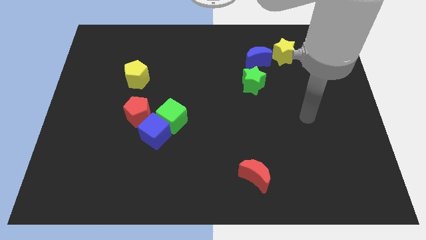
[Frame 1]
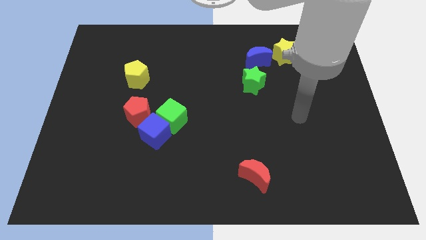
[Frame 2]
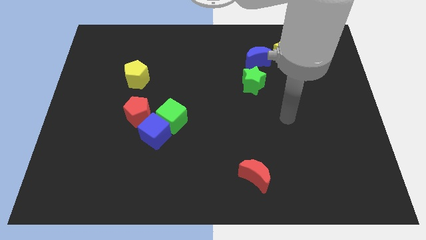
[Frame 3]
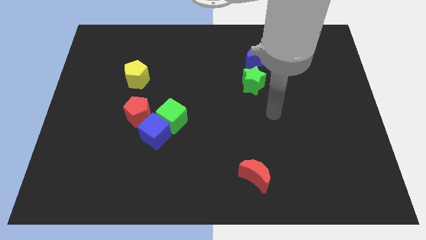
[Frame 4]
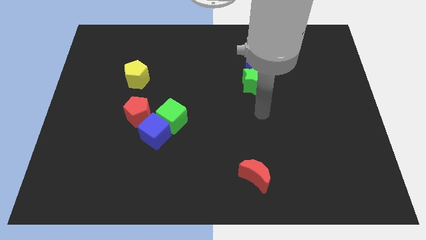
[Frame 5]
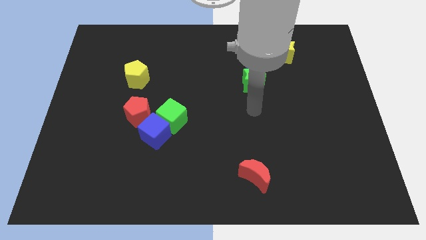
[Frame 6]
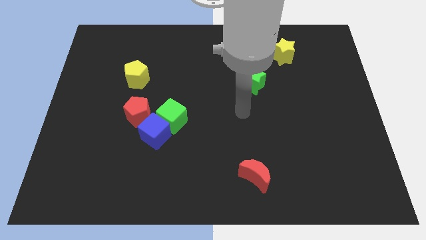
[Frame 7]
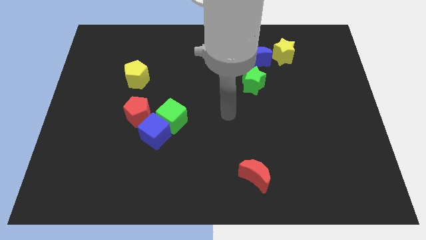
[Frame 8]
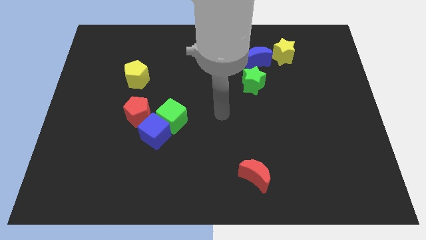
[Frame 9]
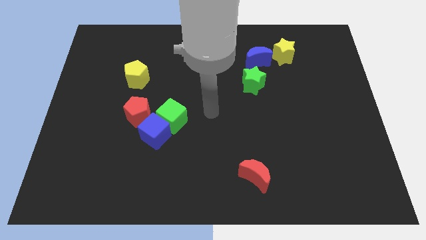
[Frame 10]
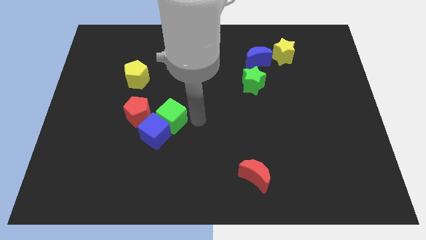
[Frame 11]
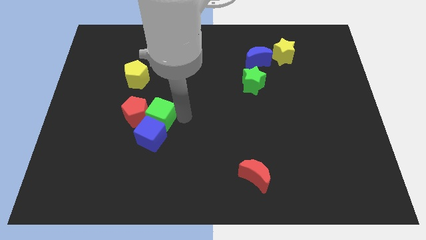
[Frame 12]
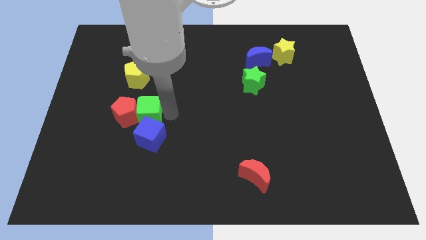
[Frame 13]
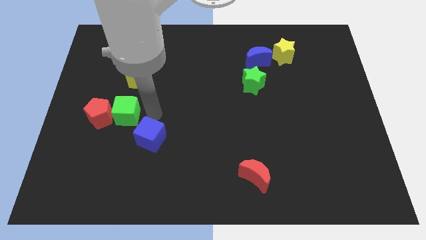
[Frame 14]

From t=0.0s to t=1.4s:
move the blue cube away from the green cube and red pentagon

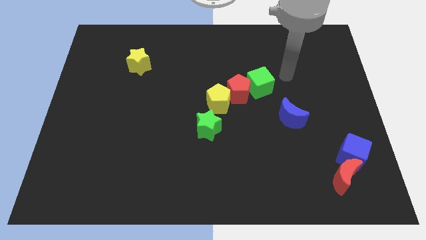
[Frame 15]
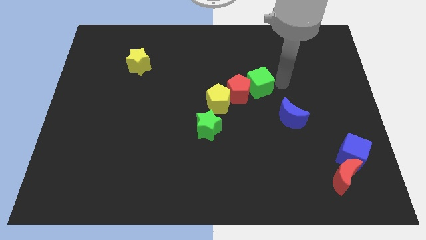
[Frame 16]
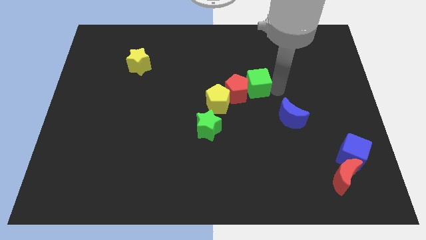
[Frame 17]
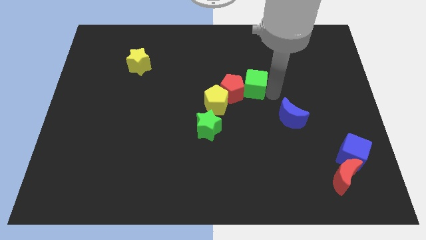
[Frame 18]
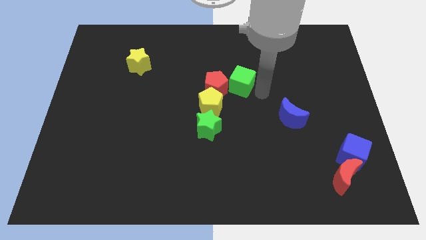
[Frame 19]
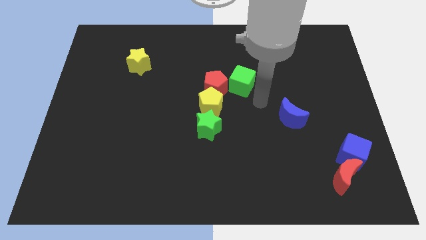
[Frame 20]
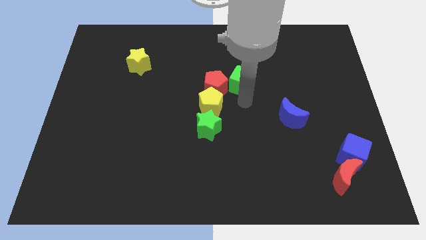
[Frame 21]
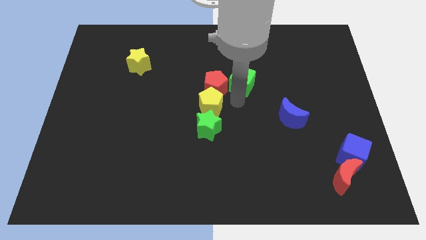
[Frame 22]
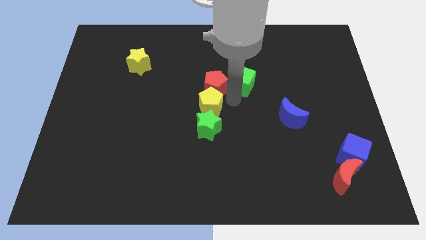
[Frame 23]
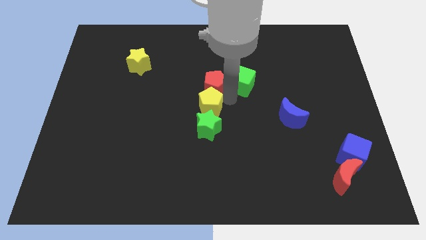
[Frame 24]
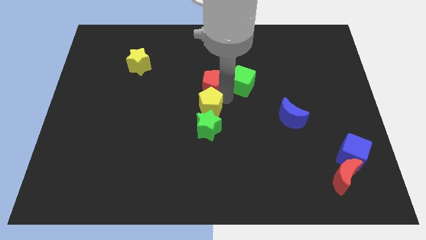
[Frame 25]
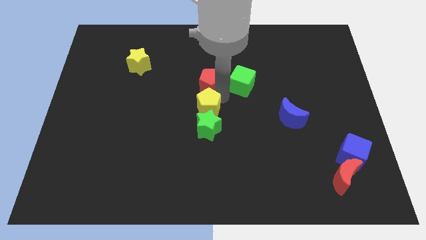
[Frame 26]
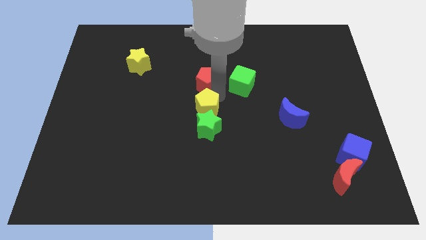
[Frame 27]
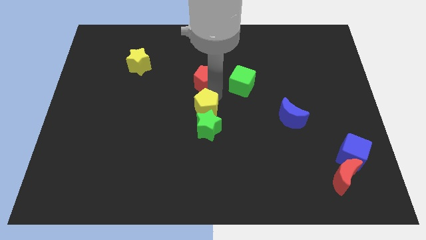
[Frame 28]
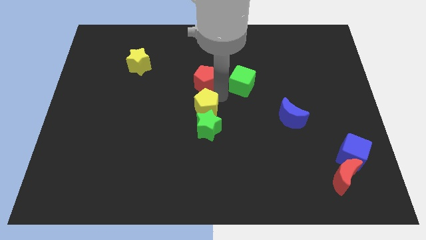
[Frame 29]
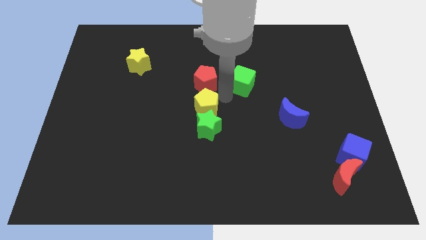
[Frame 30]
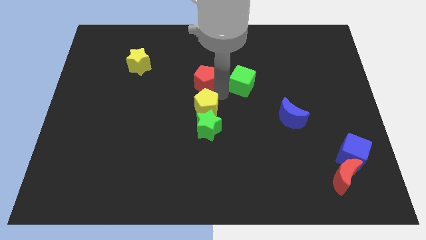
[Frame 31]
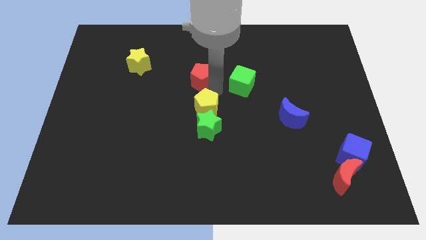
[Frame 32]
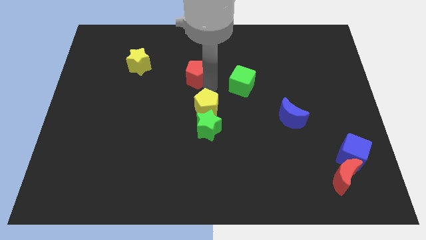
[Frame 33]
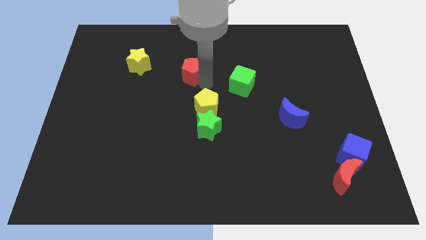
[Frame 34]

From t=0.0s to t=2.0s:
separate the red pentagon from the yellow pentagon and green cube

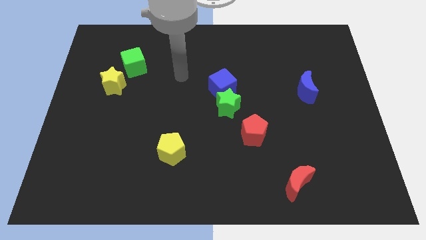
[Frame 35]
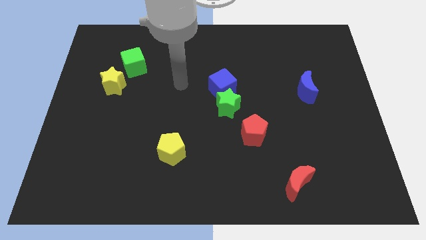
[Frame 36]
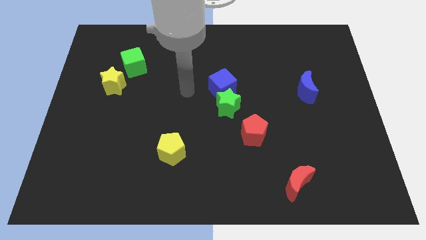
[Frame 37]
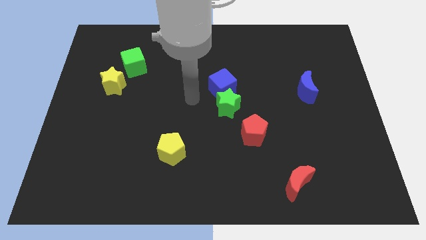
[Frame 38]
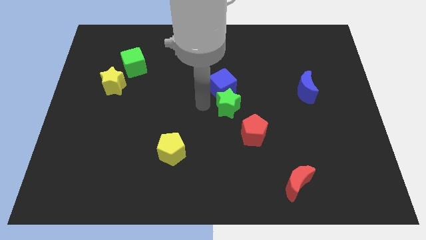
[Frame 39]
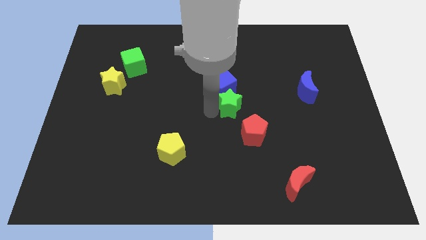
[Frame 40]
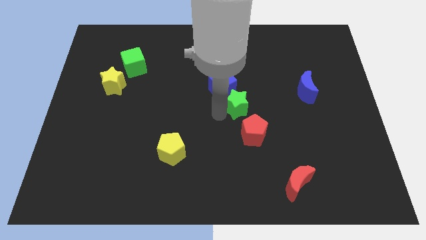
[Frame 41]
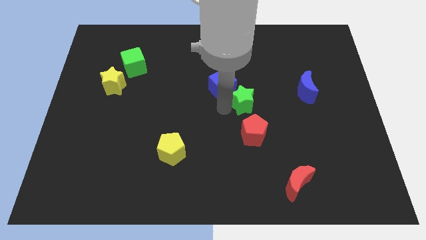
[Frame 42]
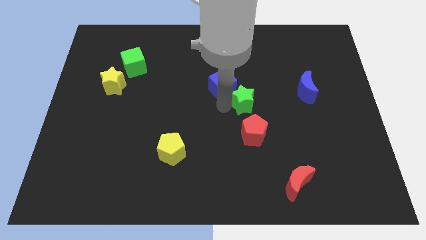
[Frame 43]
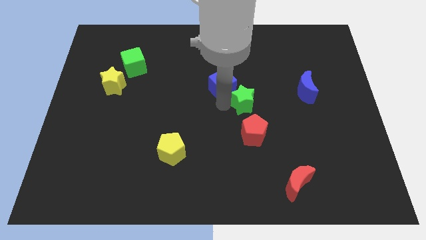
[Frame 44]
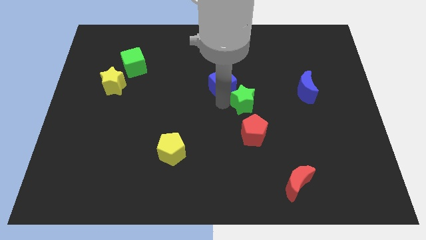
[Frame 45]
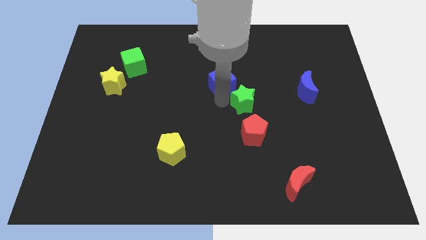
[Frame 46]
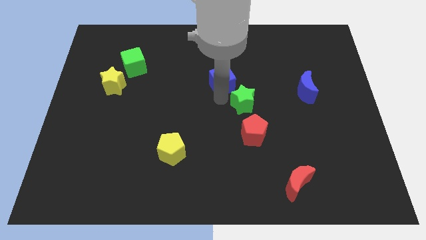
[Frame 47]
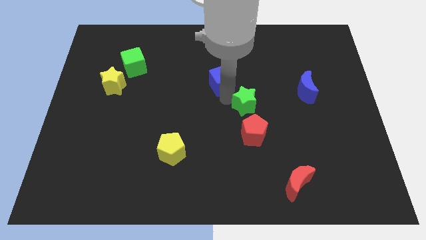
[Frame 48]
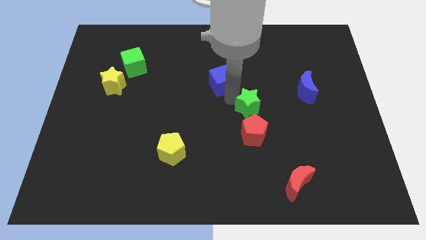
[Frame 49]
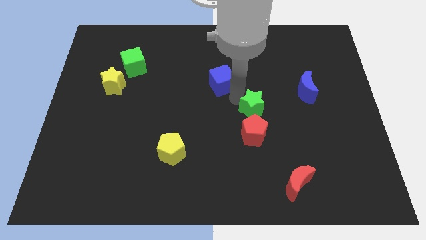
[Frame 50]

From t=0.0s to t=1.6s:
pull the blue cube apart from the green star

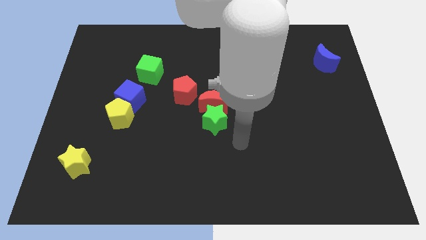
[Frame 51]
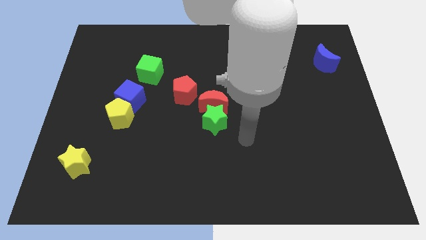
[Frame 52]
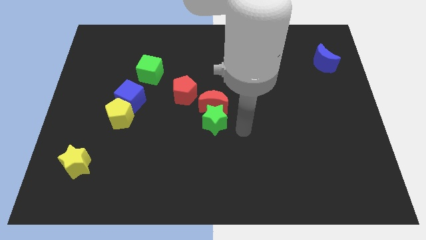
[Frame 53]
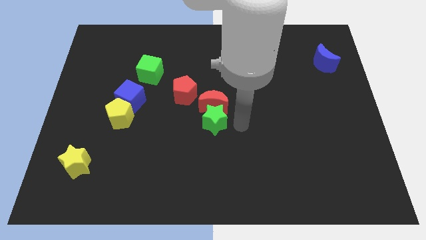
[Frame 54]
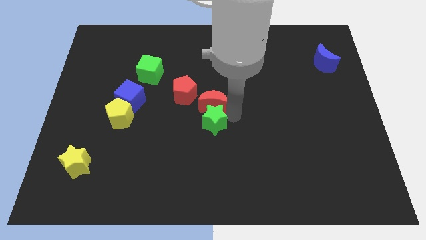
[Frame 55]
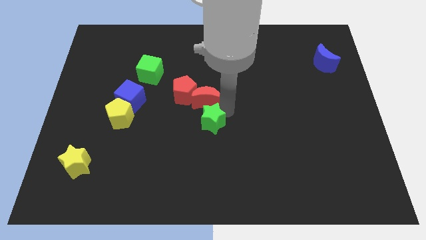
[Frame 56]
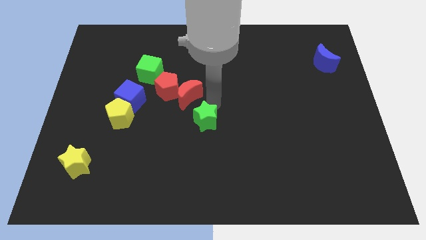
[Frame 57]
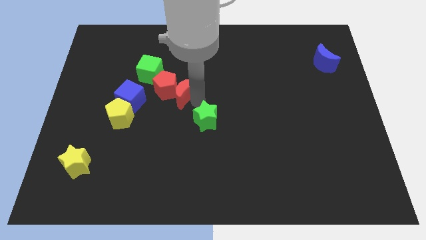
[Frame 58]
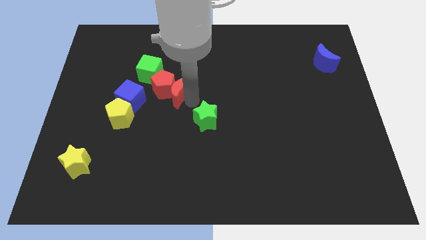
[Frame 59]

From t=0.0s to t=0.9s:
separate the green star from the red moon

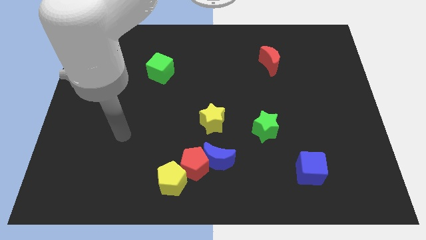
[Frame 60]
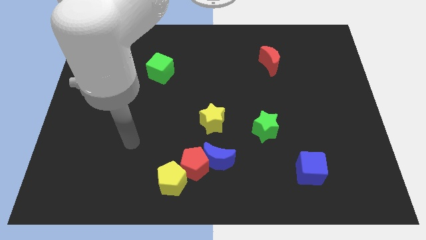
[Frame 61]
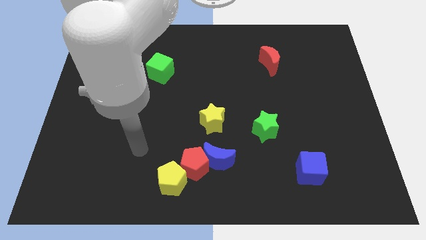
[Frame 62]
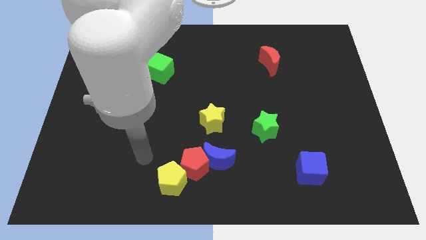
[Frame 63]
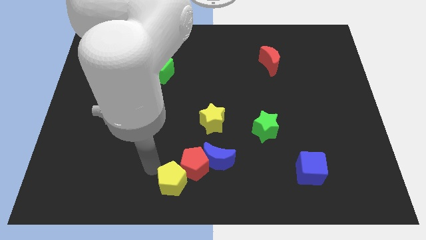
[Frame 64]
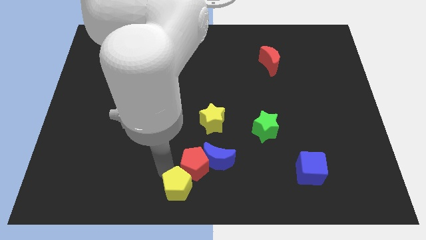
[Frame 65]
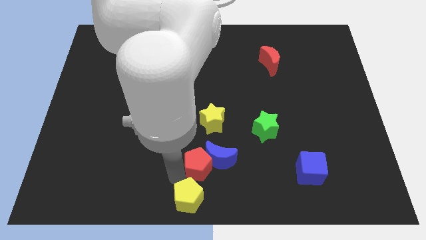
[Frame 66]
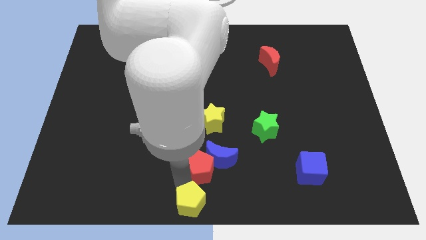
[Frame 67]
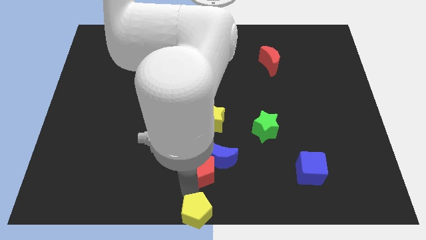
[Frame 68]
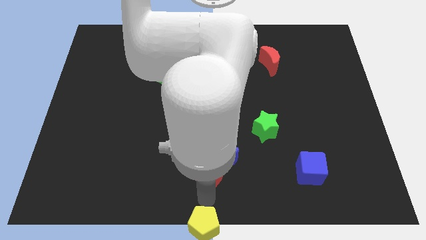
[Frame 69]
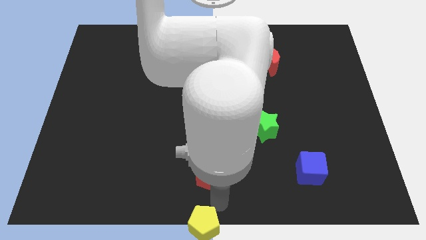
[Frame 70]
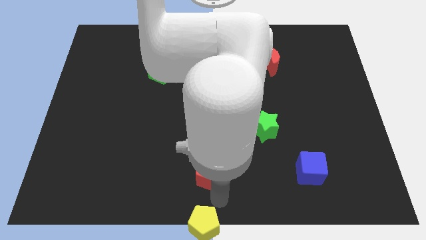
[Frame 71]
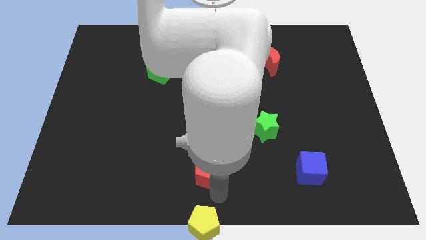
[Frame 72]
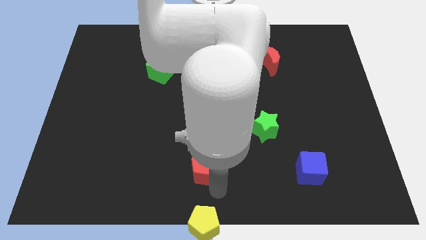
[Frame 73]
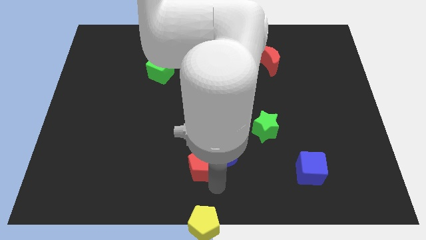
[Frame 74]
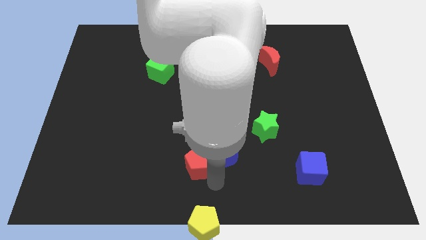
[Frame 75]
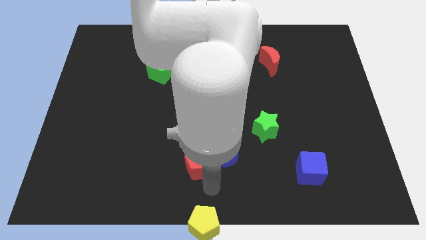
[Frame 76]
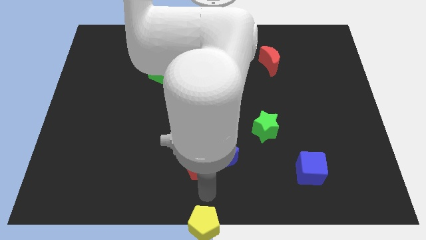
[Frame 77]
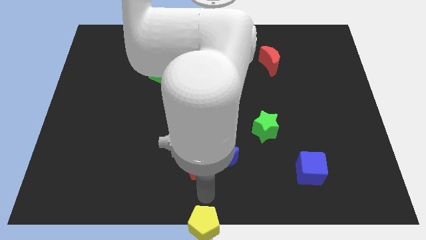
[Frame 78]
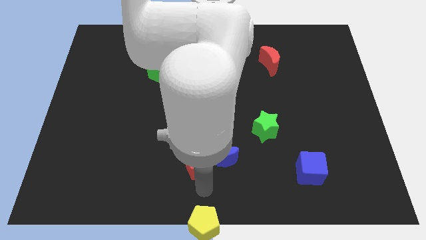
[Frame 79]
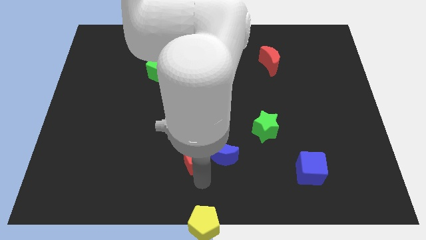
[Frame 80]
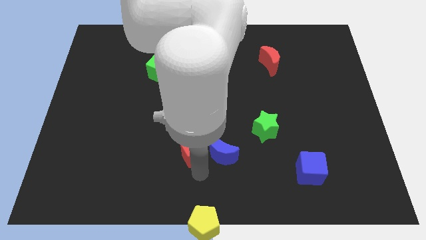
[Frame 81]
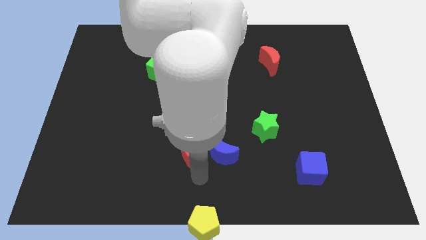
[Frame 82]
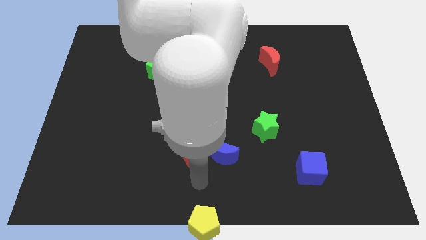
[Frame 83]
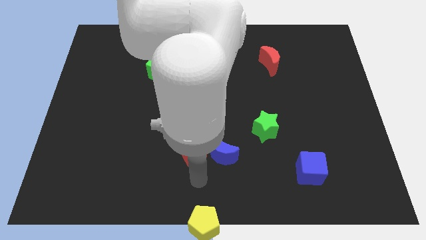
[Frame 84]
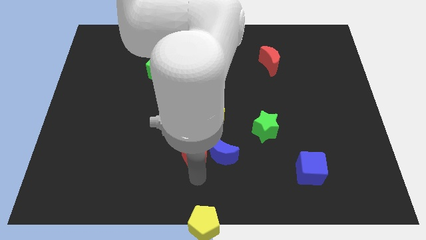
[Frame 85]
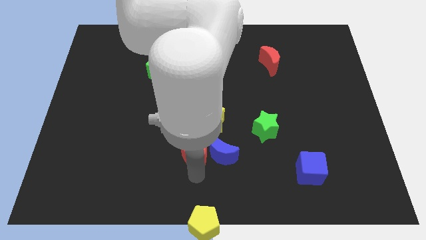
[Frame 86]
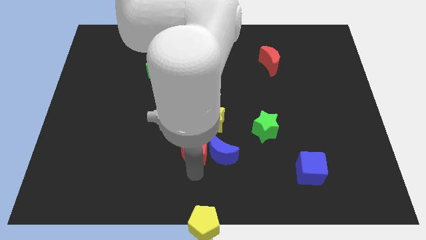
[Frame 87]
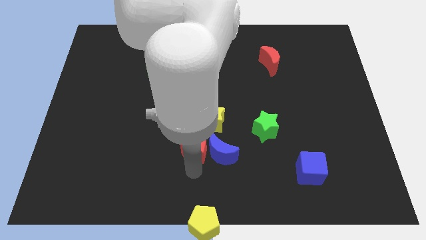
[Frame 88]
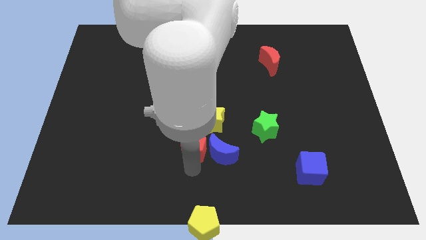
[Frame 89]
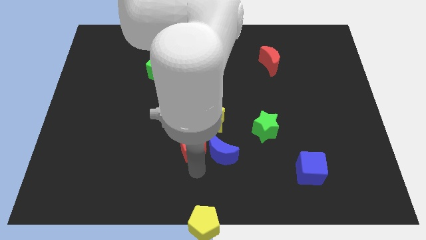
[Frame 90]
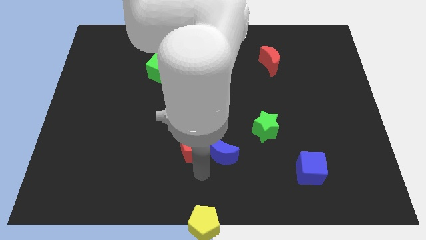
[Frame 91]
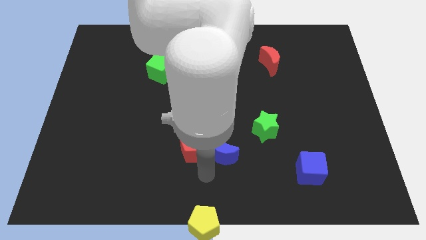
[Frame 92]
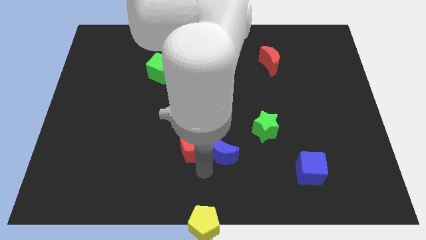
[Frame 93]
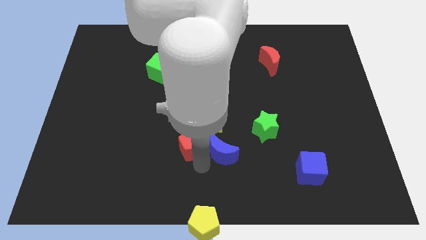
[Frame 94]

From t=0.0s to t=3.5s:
pull the red pentagon apart from the blue moon and yellow pentagon
